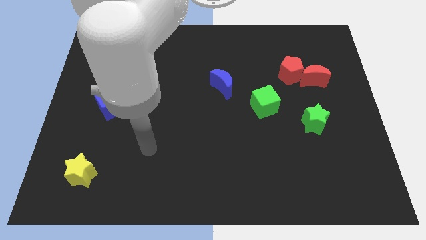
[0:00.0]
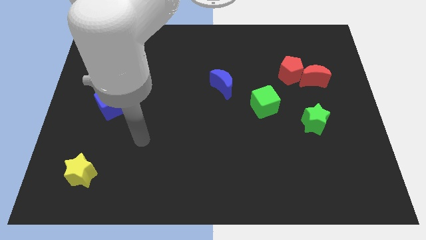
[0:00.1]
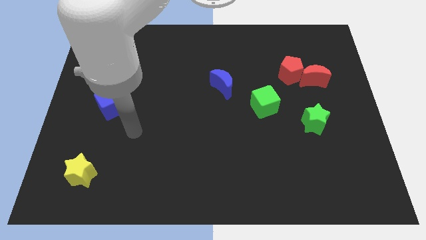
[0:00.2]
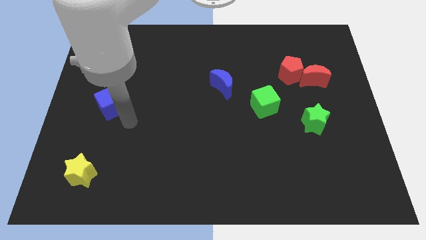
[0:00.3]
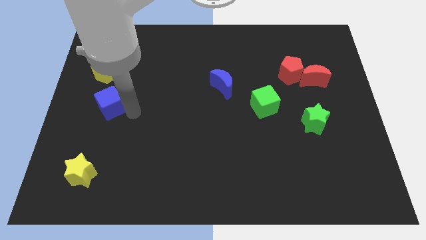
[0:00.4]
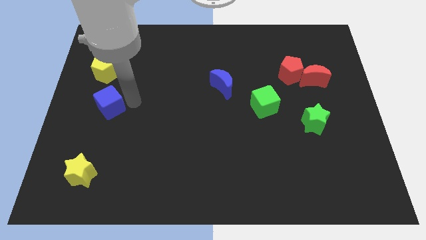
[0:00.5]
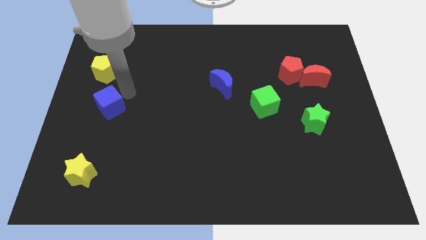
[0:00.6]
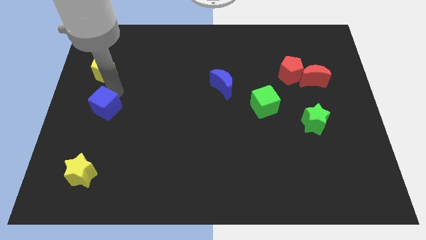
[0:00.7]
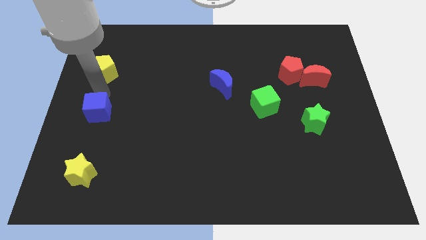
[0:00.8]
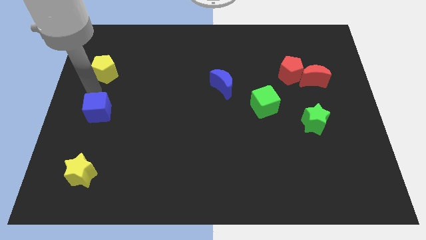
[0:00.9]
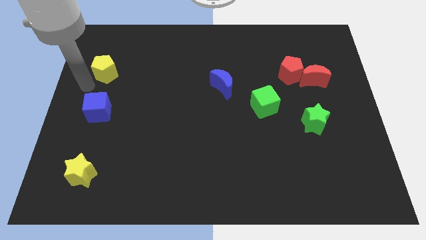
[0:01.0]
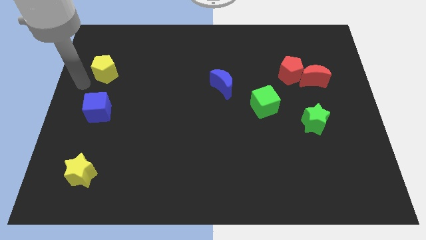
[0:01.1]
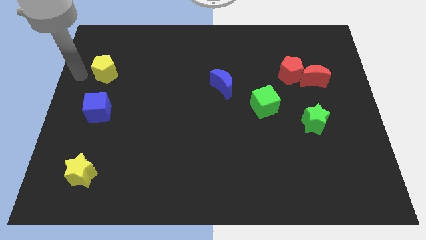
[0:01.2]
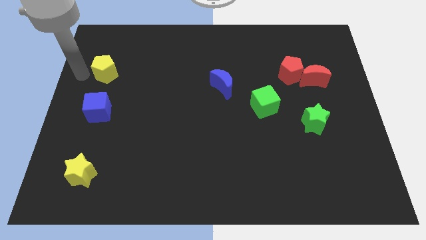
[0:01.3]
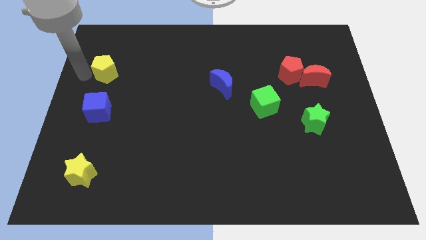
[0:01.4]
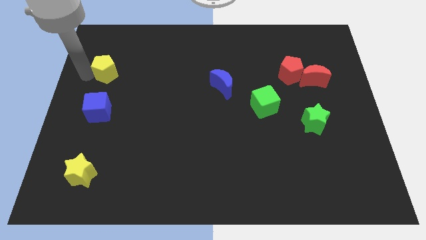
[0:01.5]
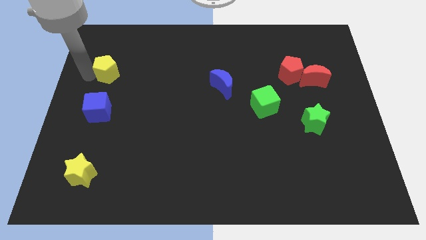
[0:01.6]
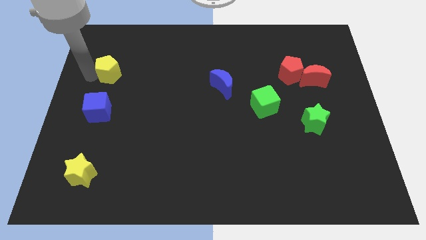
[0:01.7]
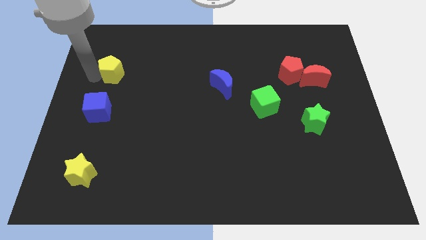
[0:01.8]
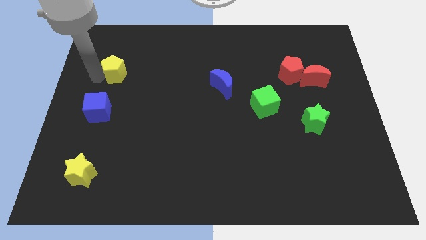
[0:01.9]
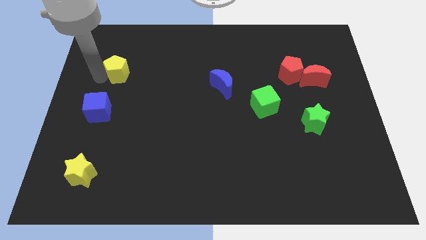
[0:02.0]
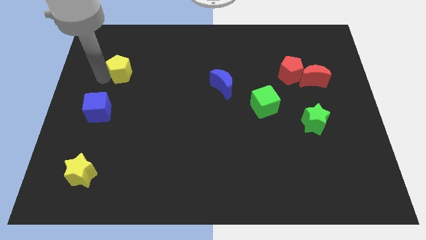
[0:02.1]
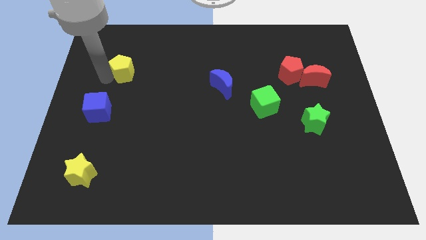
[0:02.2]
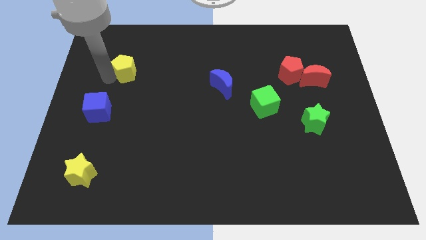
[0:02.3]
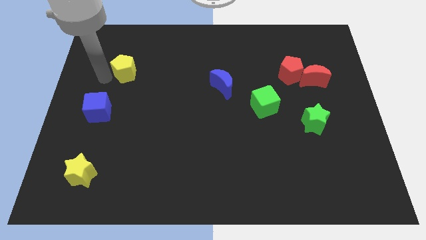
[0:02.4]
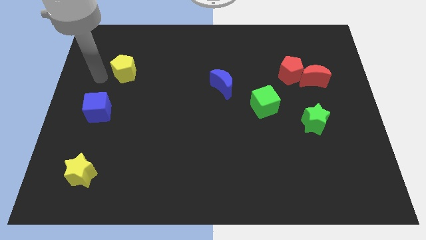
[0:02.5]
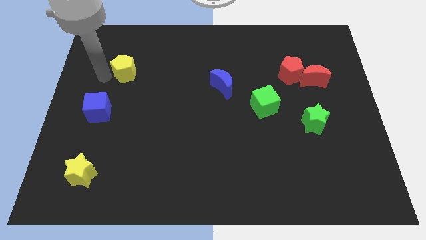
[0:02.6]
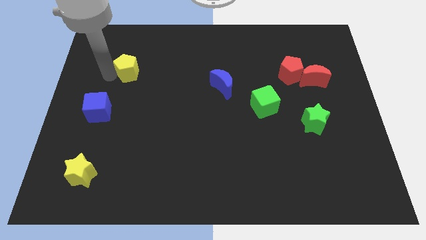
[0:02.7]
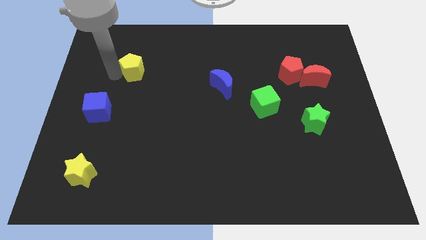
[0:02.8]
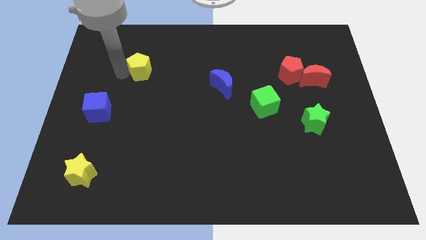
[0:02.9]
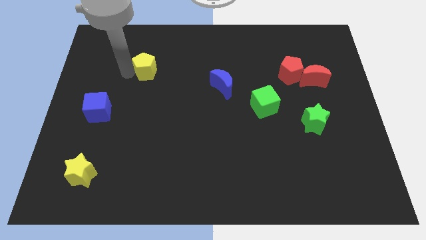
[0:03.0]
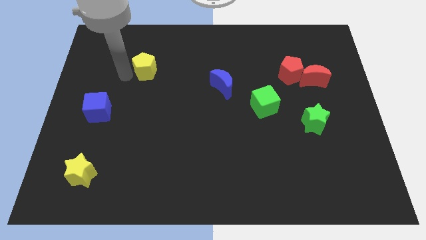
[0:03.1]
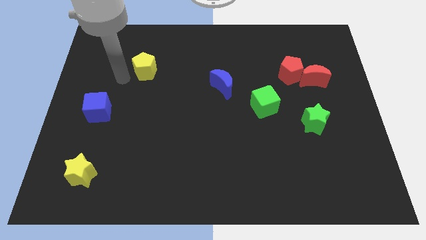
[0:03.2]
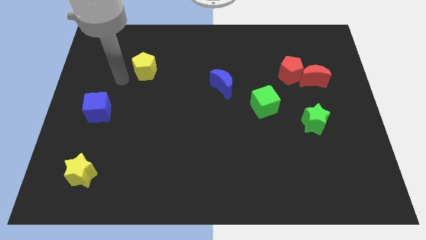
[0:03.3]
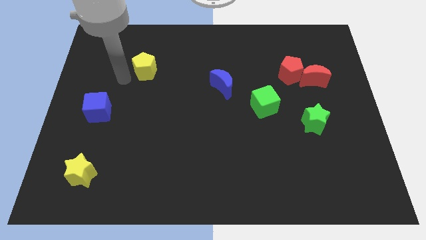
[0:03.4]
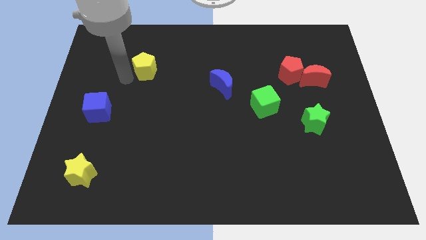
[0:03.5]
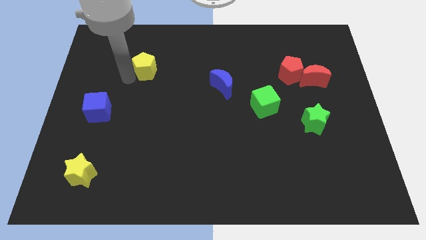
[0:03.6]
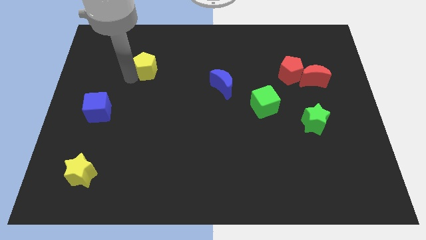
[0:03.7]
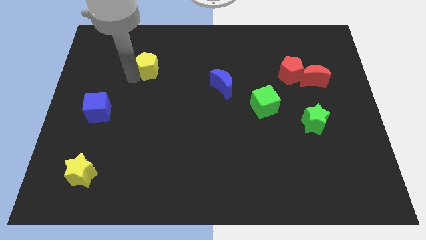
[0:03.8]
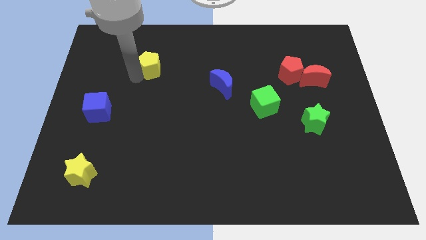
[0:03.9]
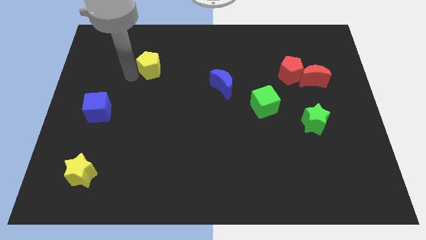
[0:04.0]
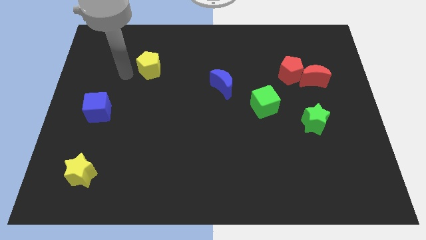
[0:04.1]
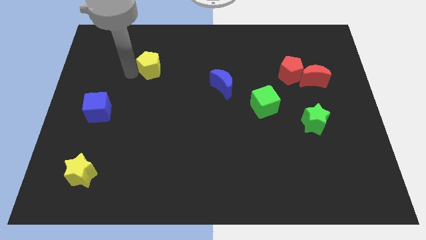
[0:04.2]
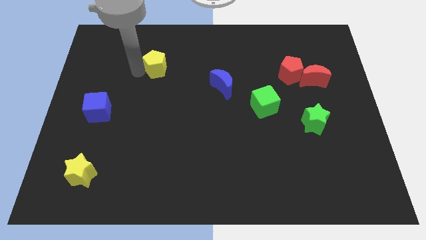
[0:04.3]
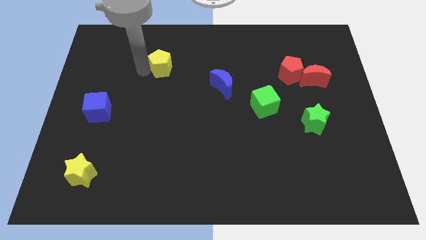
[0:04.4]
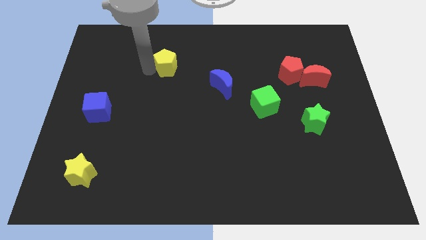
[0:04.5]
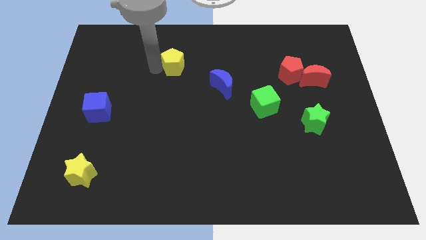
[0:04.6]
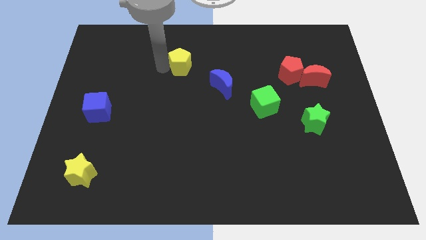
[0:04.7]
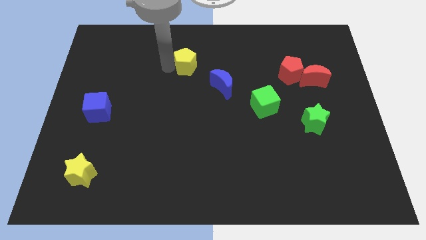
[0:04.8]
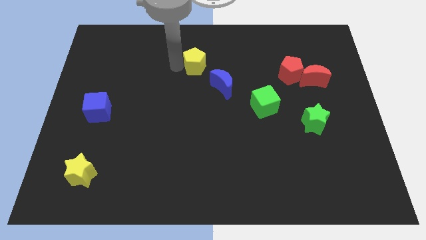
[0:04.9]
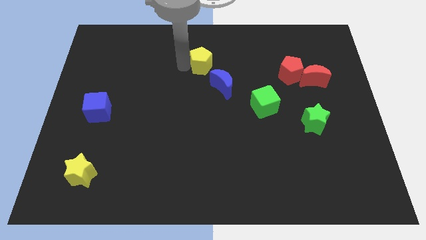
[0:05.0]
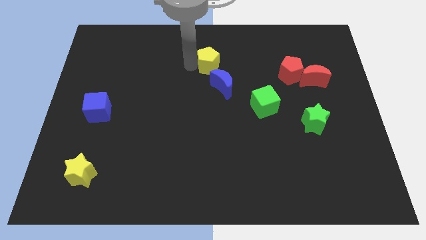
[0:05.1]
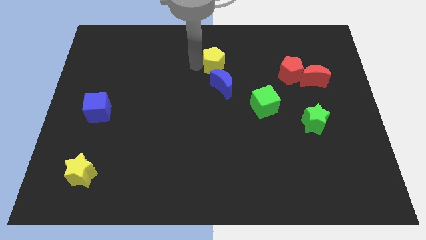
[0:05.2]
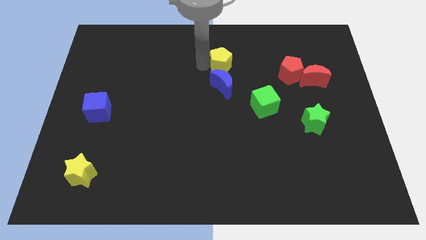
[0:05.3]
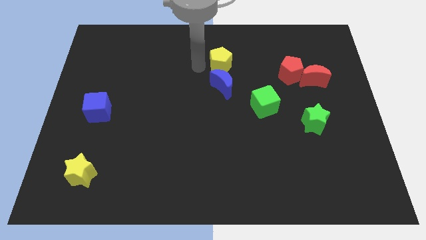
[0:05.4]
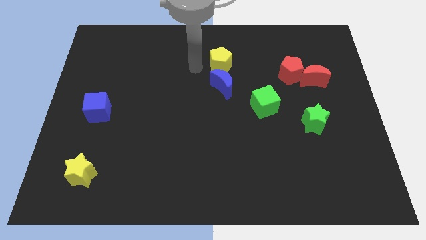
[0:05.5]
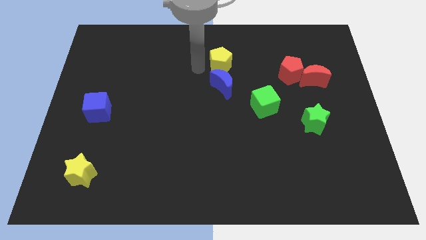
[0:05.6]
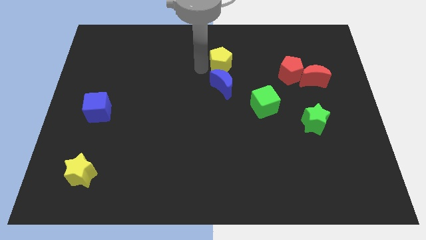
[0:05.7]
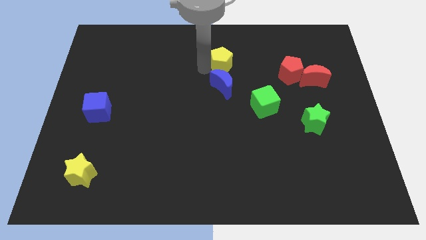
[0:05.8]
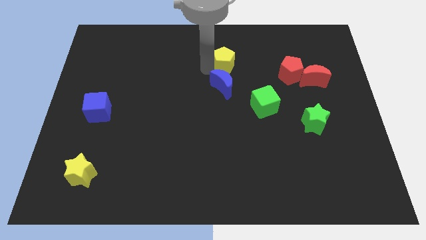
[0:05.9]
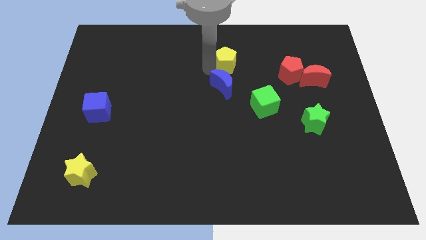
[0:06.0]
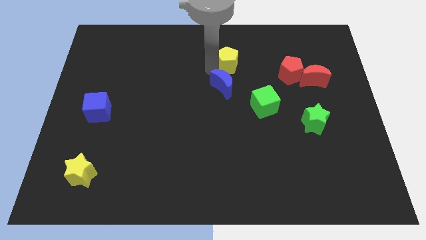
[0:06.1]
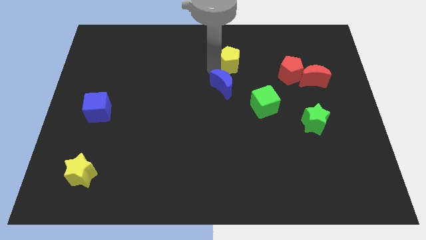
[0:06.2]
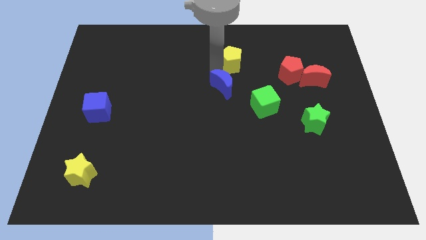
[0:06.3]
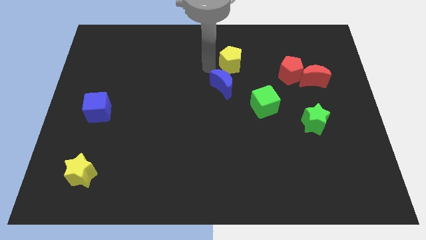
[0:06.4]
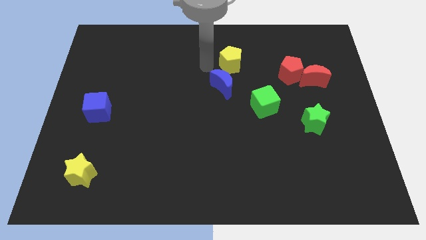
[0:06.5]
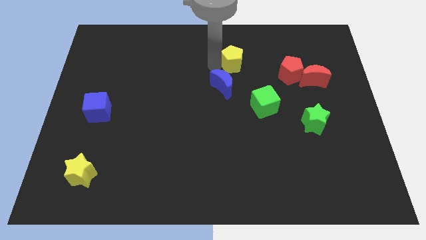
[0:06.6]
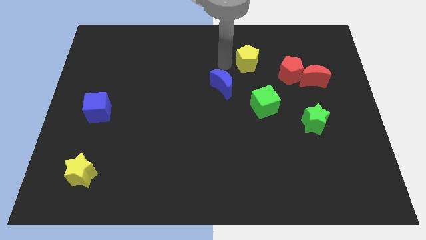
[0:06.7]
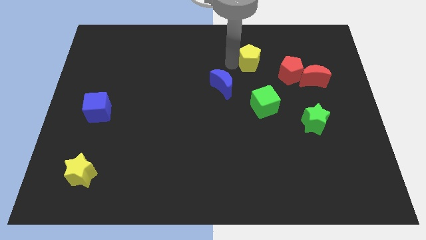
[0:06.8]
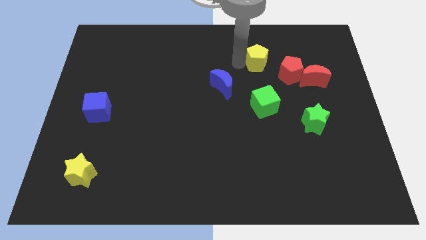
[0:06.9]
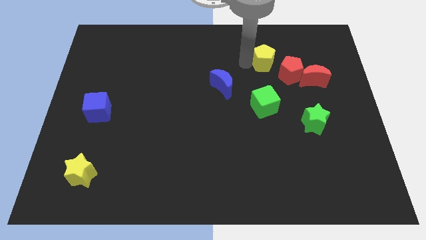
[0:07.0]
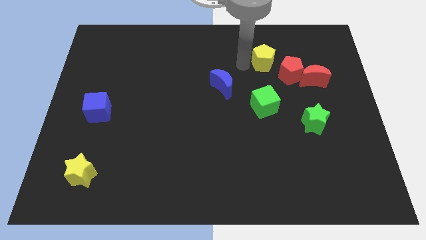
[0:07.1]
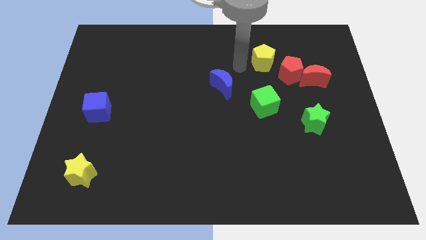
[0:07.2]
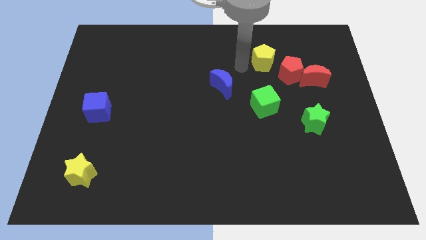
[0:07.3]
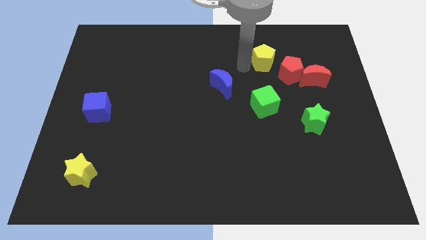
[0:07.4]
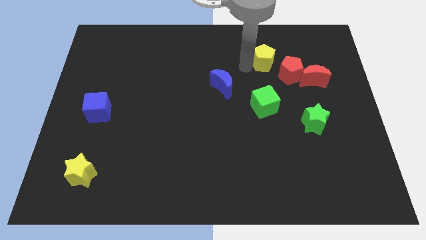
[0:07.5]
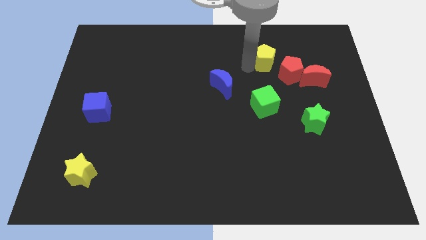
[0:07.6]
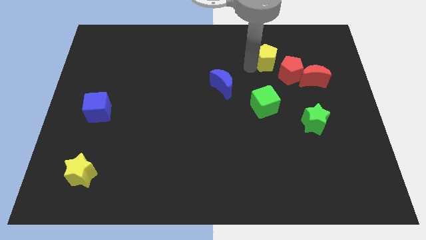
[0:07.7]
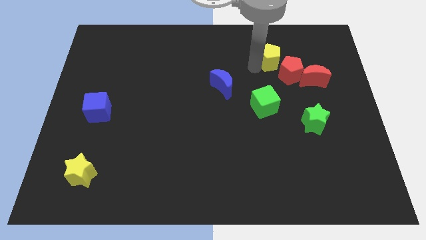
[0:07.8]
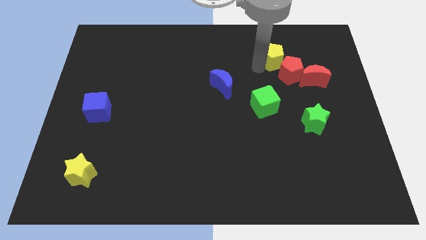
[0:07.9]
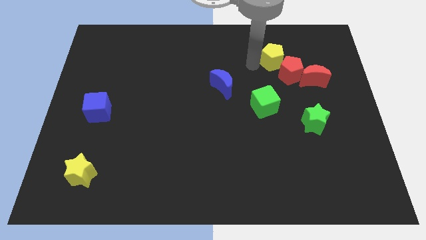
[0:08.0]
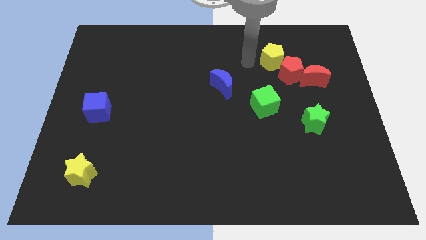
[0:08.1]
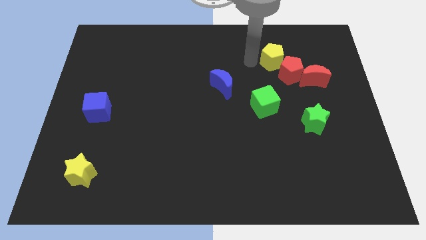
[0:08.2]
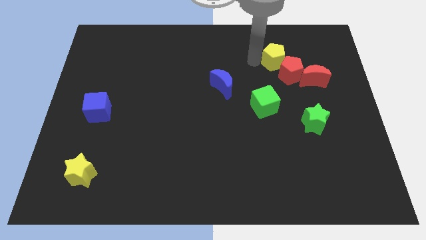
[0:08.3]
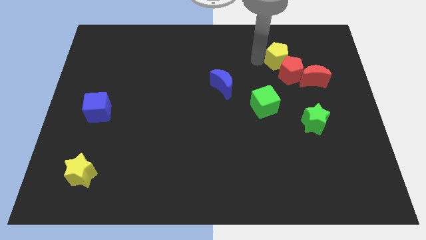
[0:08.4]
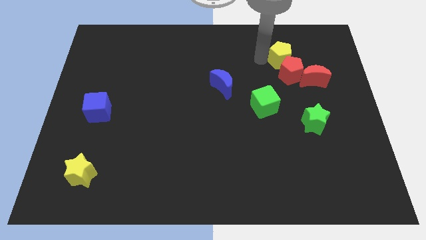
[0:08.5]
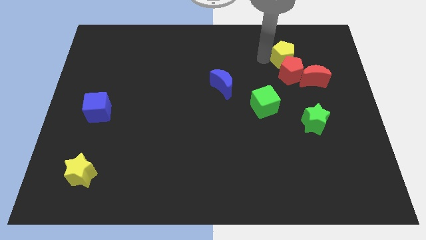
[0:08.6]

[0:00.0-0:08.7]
push the yellow pentagon to the top right of the red pentagon
